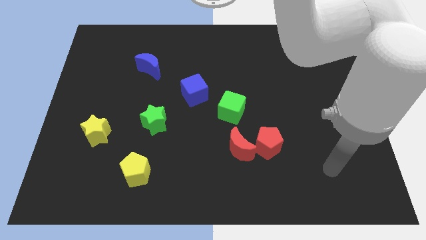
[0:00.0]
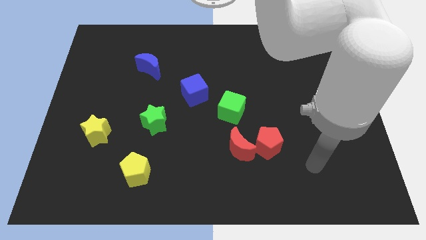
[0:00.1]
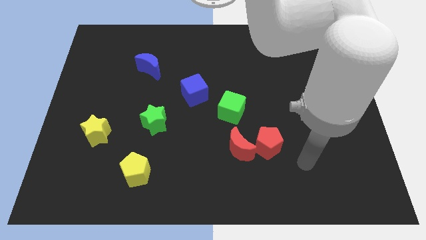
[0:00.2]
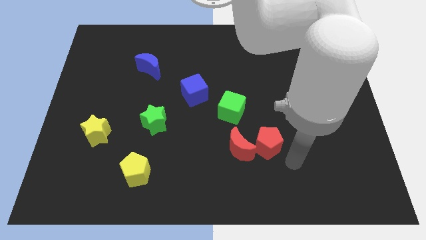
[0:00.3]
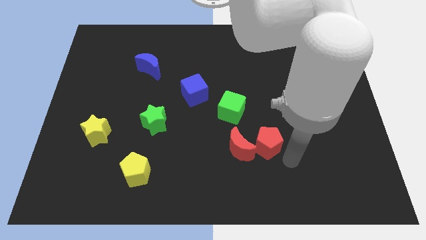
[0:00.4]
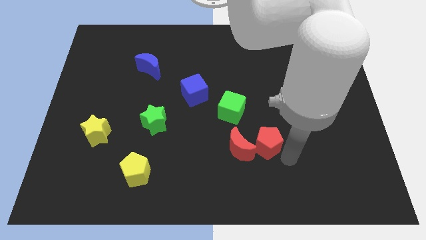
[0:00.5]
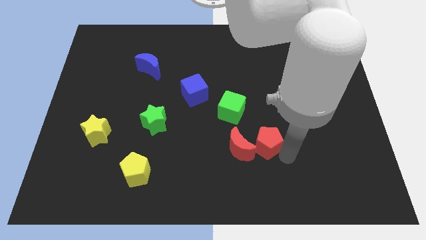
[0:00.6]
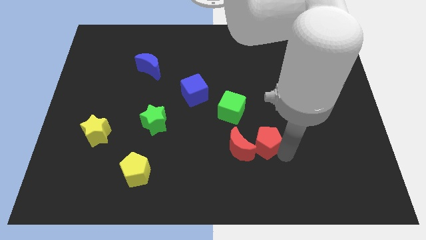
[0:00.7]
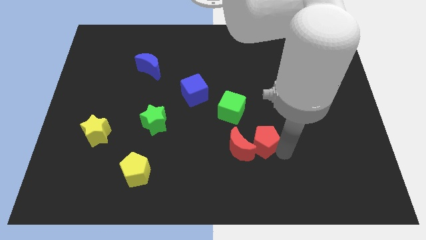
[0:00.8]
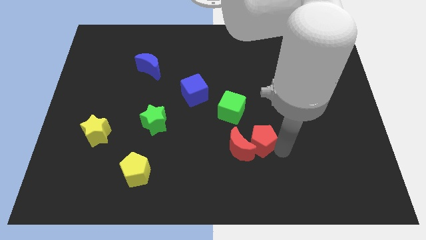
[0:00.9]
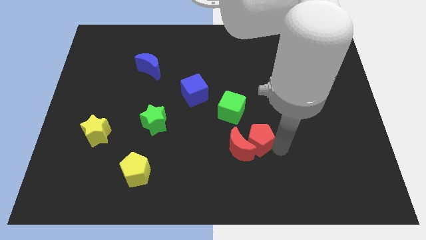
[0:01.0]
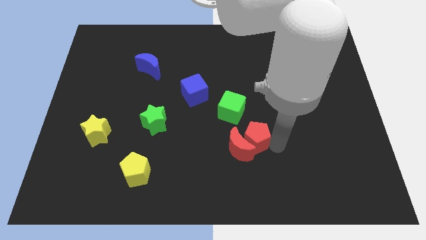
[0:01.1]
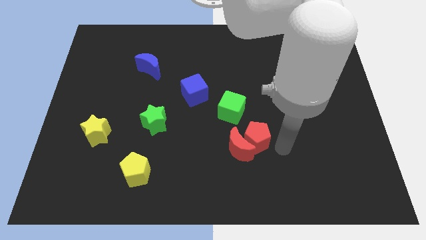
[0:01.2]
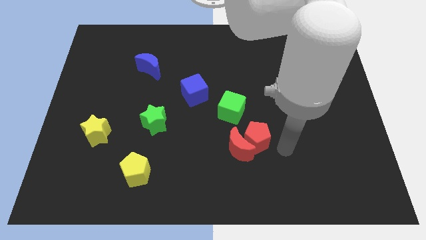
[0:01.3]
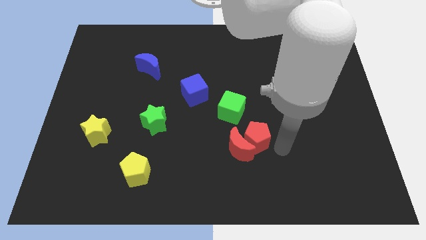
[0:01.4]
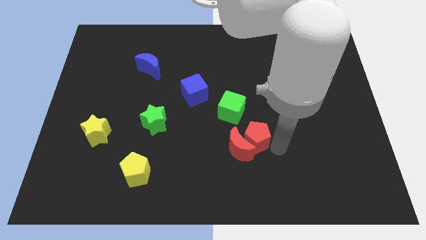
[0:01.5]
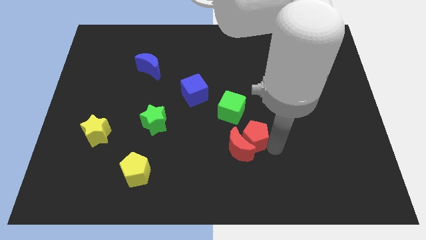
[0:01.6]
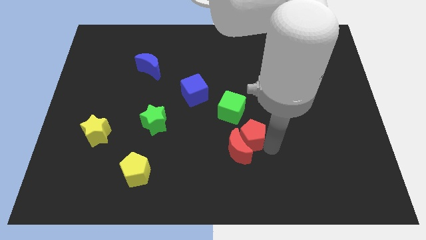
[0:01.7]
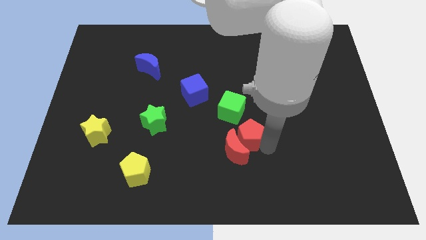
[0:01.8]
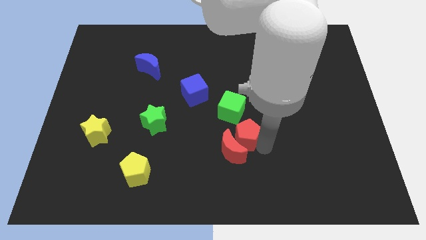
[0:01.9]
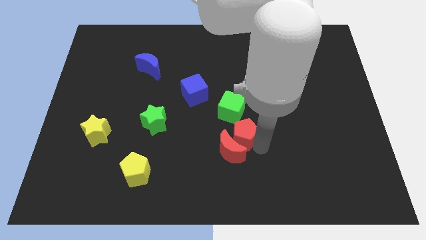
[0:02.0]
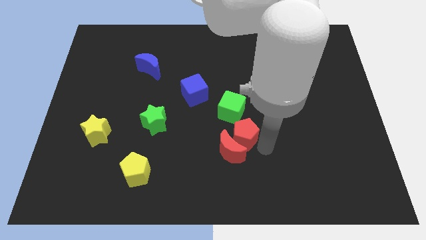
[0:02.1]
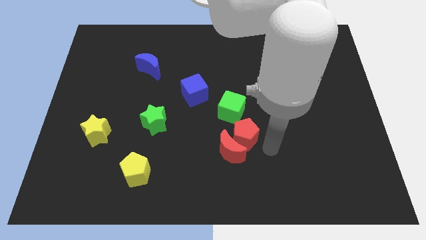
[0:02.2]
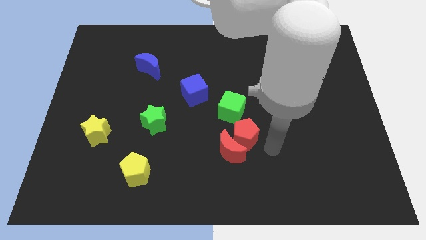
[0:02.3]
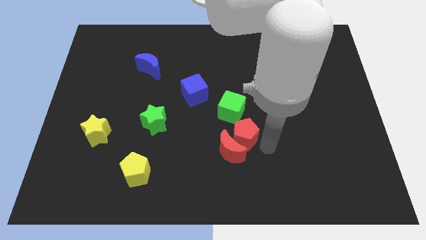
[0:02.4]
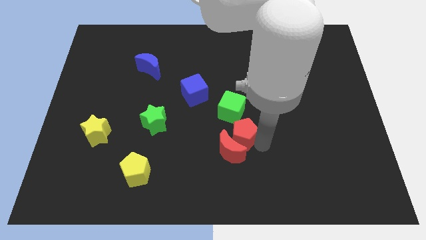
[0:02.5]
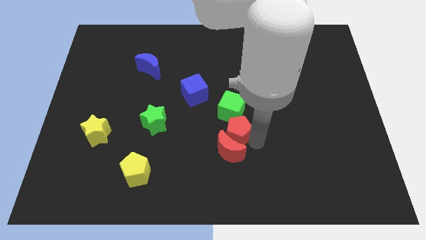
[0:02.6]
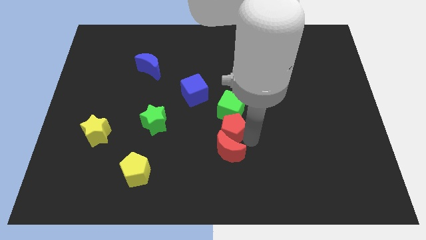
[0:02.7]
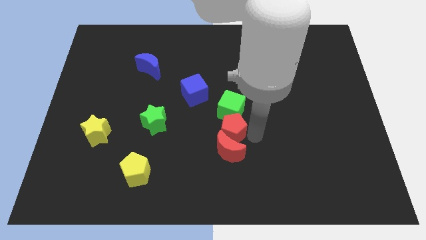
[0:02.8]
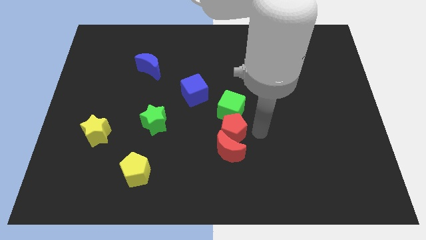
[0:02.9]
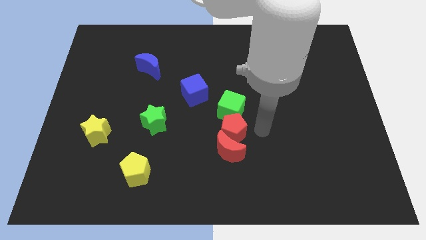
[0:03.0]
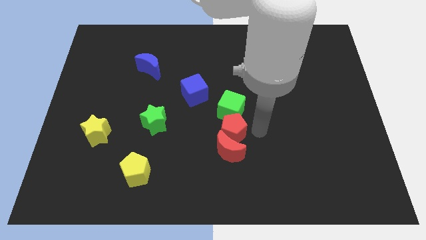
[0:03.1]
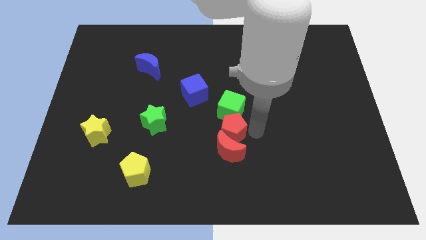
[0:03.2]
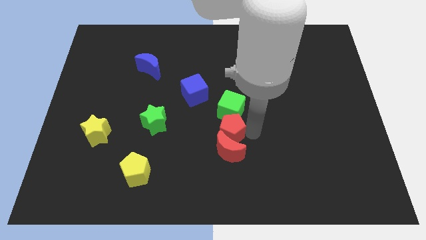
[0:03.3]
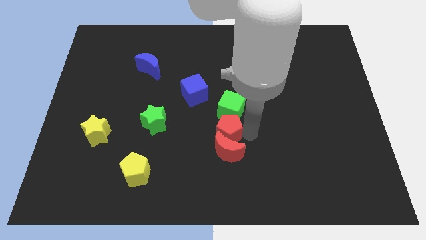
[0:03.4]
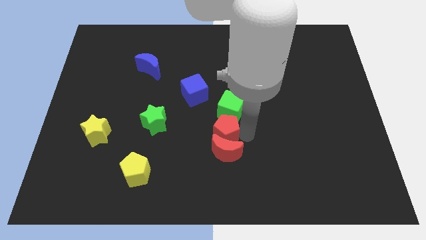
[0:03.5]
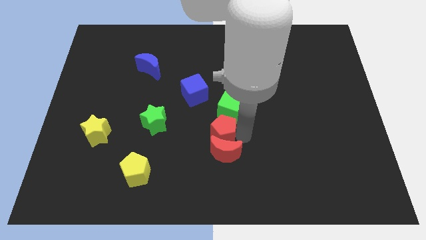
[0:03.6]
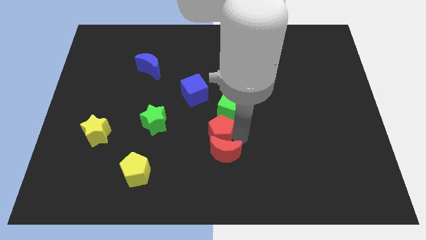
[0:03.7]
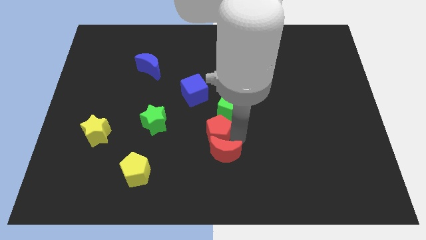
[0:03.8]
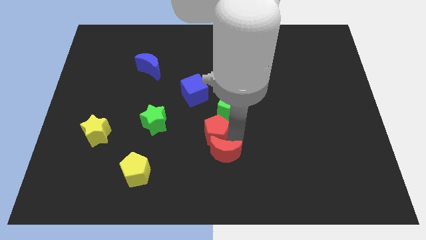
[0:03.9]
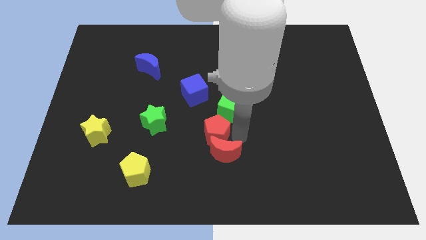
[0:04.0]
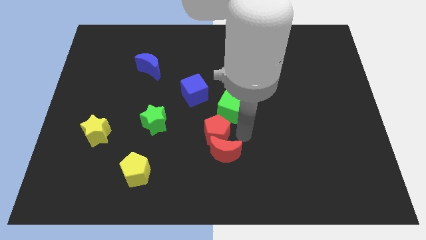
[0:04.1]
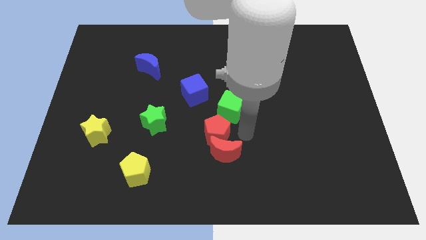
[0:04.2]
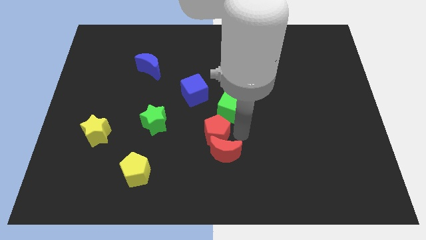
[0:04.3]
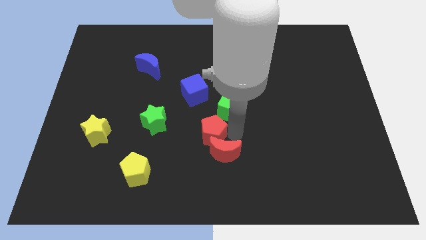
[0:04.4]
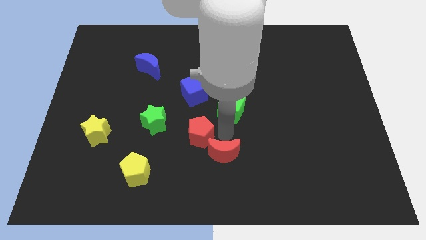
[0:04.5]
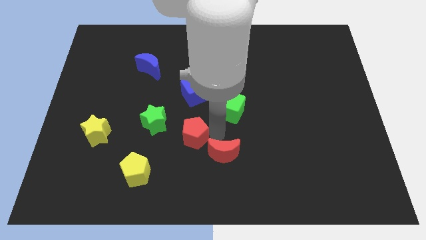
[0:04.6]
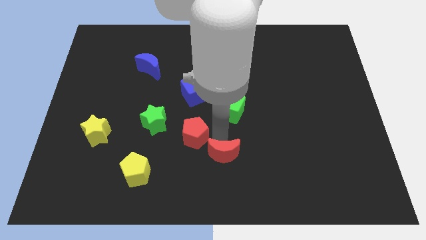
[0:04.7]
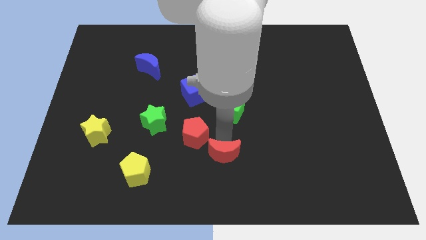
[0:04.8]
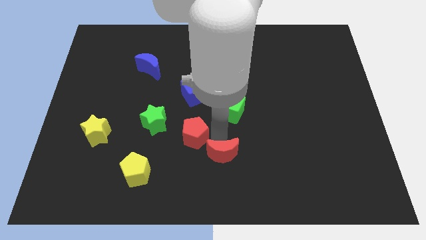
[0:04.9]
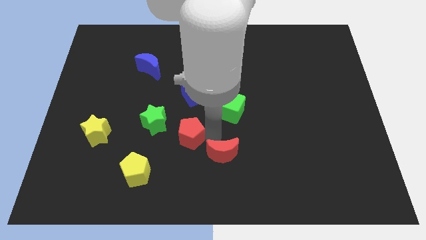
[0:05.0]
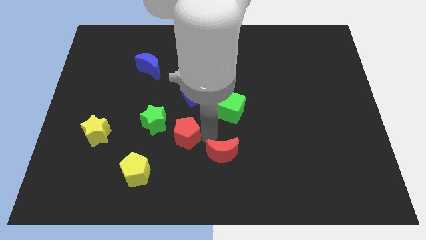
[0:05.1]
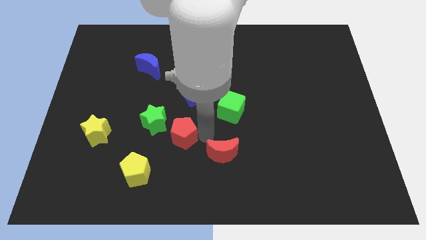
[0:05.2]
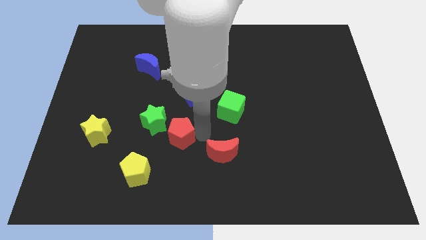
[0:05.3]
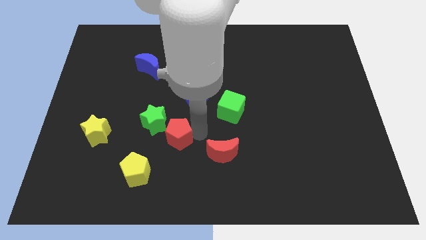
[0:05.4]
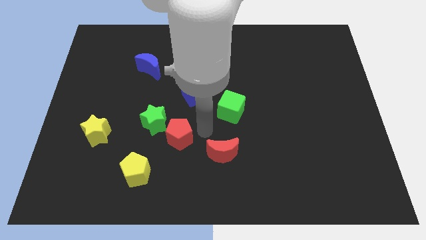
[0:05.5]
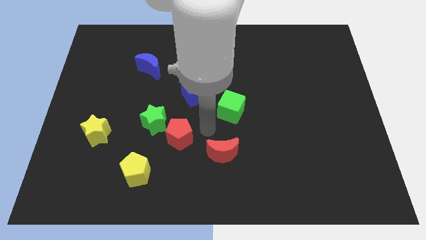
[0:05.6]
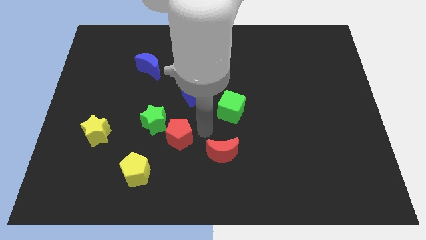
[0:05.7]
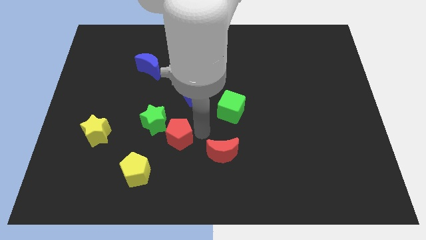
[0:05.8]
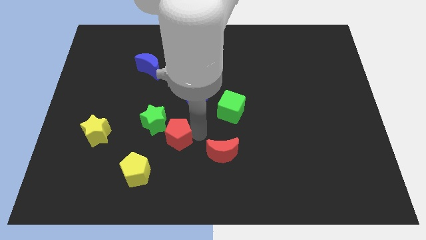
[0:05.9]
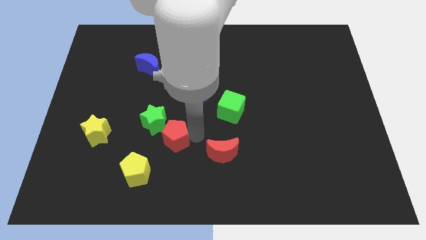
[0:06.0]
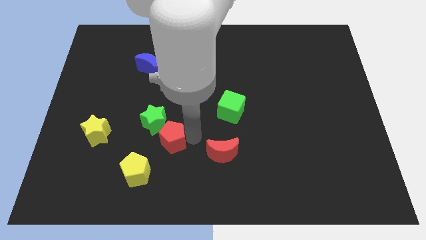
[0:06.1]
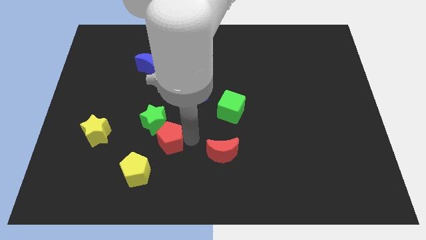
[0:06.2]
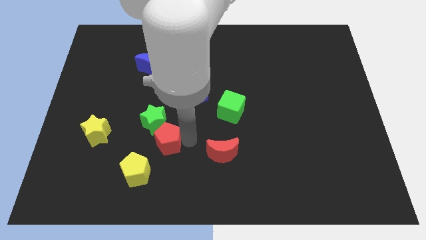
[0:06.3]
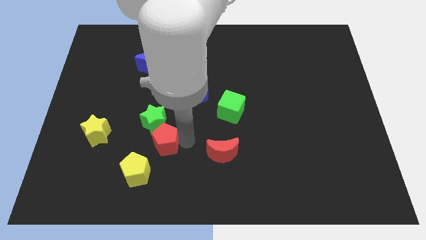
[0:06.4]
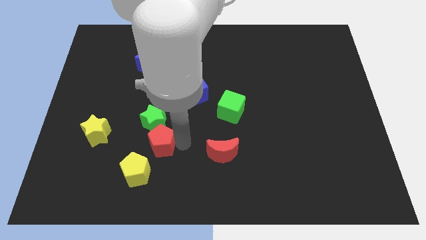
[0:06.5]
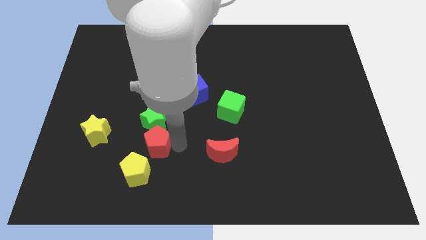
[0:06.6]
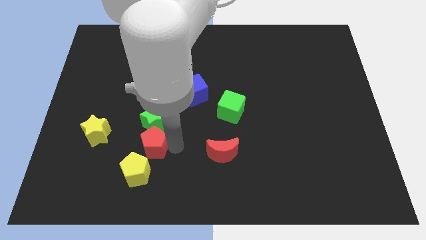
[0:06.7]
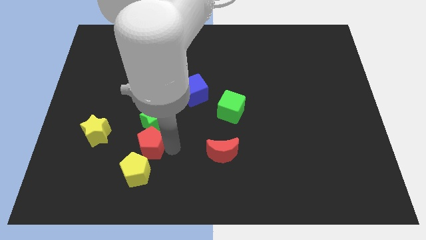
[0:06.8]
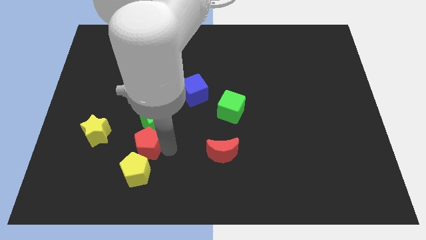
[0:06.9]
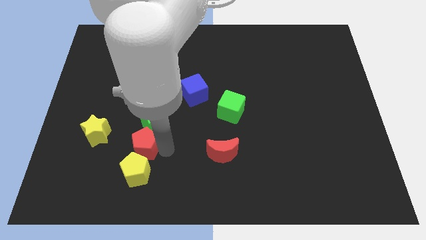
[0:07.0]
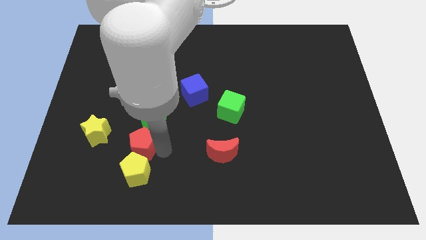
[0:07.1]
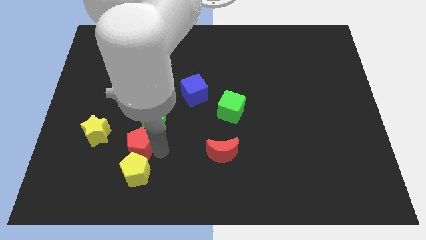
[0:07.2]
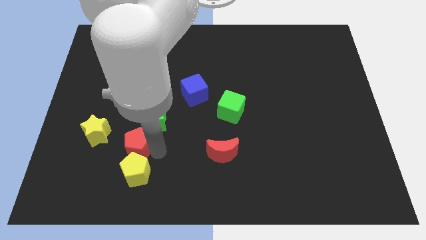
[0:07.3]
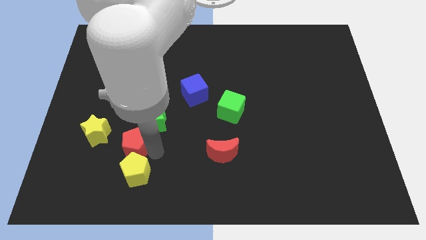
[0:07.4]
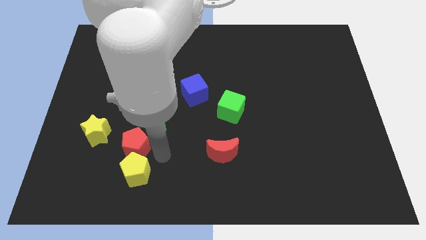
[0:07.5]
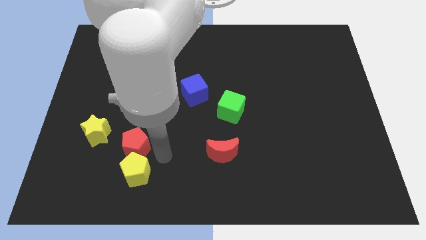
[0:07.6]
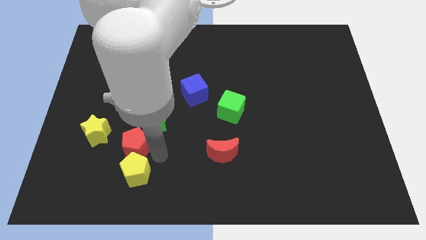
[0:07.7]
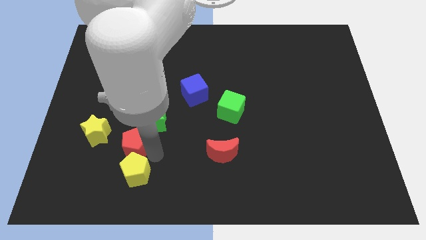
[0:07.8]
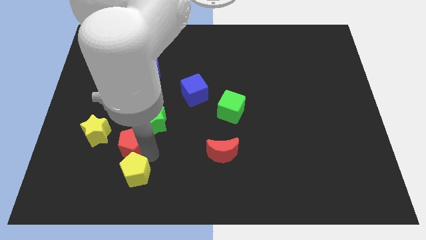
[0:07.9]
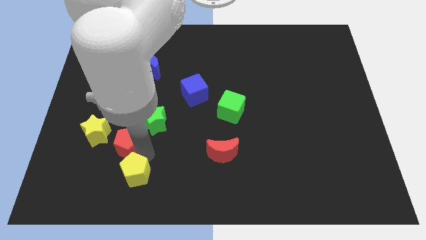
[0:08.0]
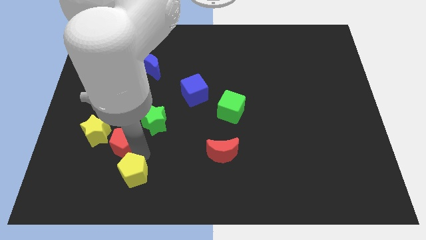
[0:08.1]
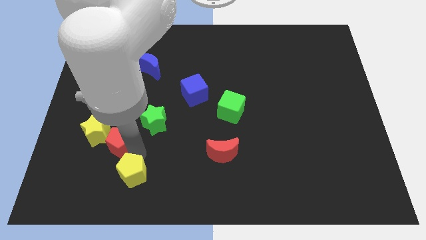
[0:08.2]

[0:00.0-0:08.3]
move the red pentagon next to the yellow star
